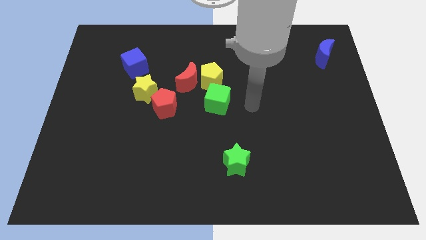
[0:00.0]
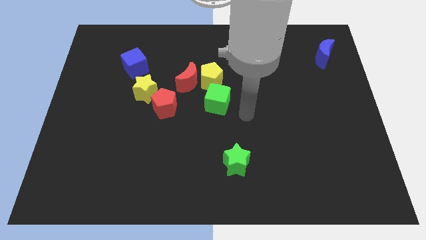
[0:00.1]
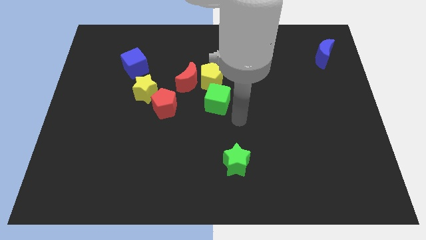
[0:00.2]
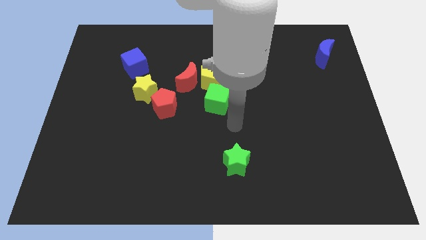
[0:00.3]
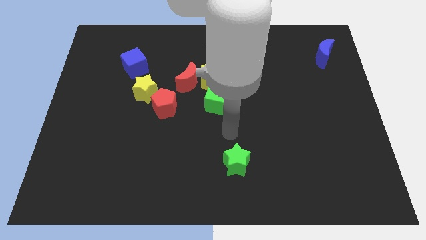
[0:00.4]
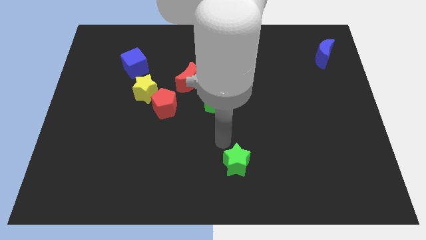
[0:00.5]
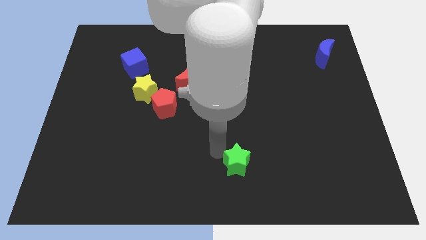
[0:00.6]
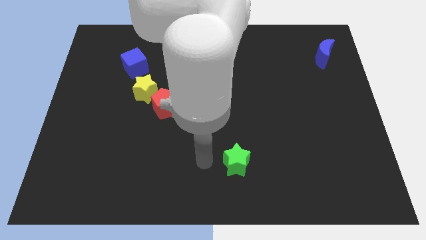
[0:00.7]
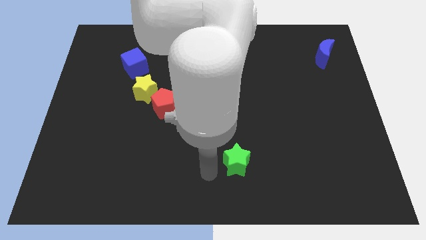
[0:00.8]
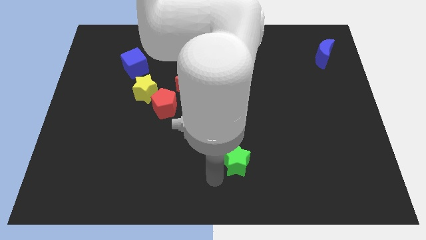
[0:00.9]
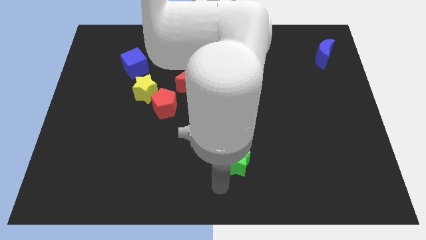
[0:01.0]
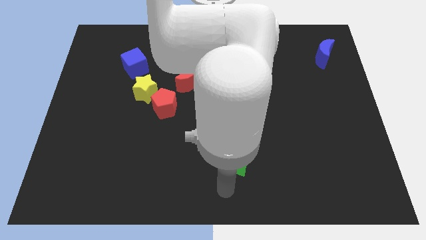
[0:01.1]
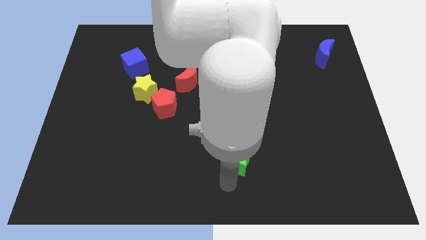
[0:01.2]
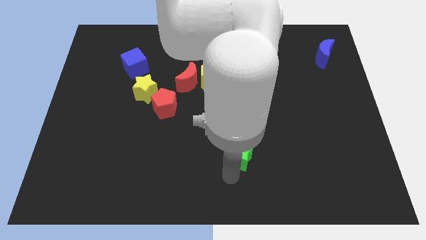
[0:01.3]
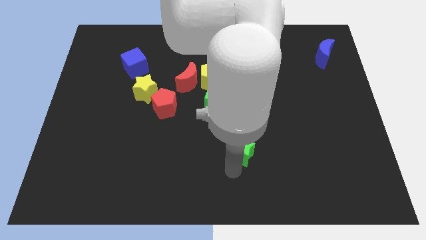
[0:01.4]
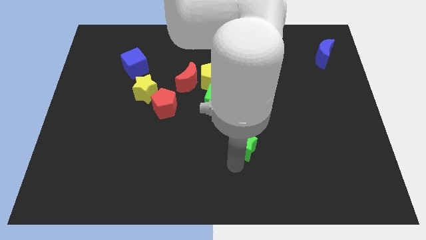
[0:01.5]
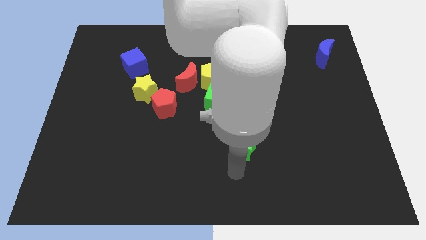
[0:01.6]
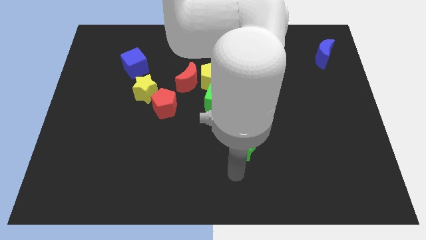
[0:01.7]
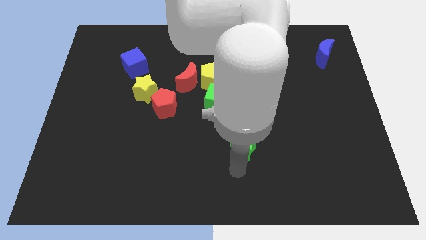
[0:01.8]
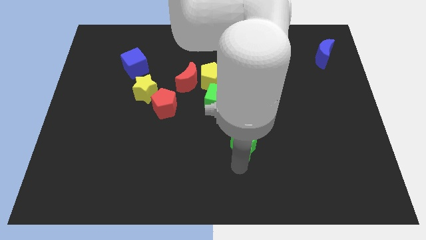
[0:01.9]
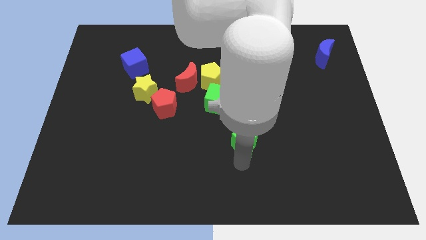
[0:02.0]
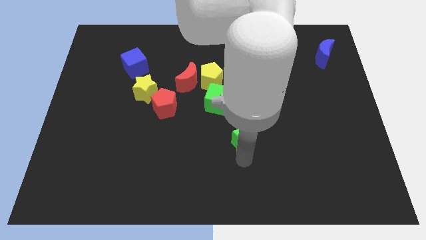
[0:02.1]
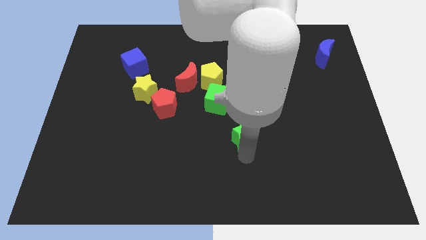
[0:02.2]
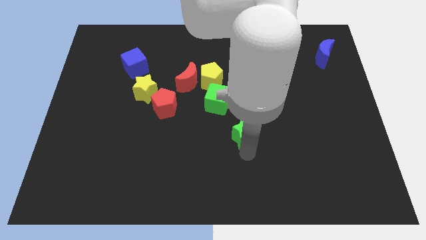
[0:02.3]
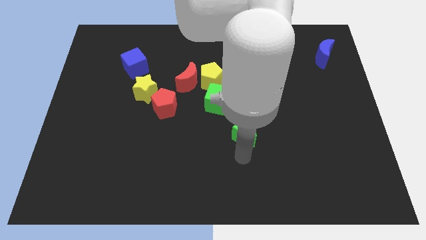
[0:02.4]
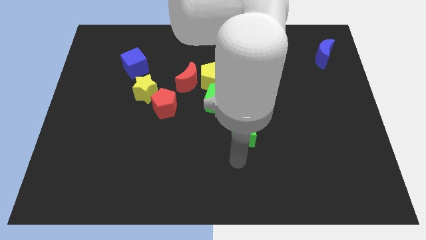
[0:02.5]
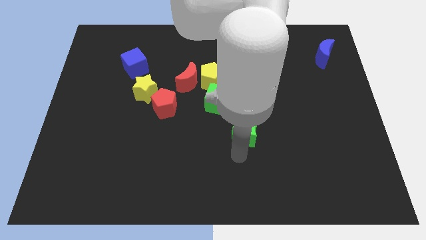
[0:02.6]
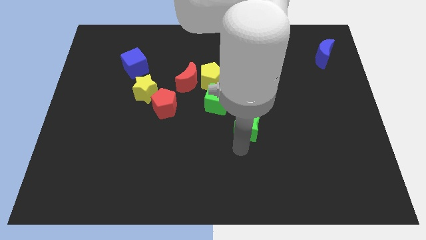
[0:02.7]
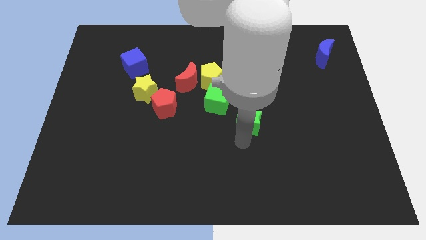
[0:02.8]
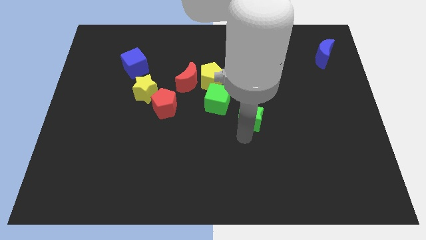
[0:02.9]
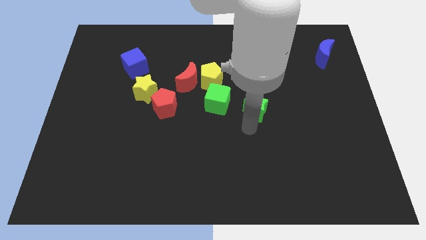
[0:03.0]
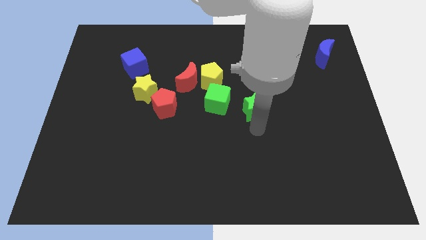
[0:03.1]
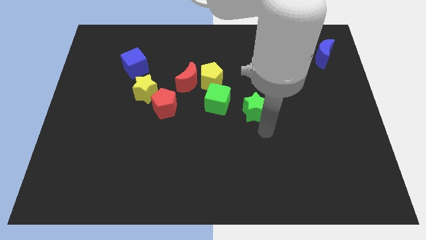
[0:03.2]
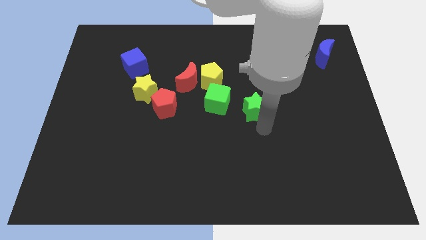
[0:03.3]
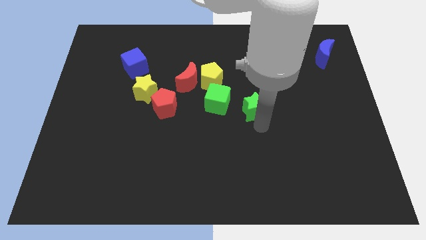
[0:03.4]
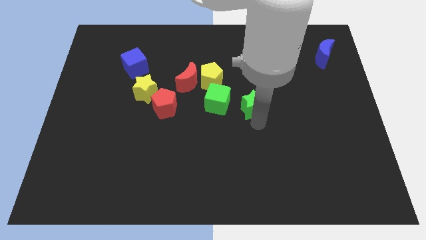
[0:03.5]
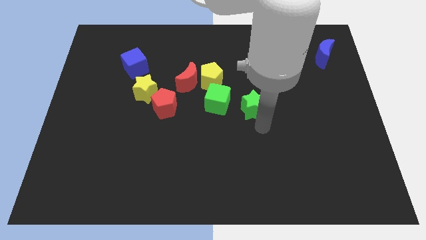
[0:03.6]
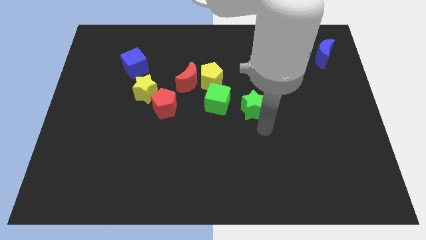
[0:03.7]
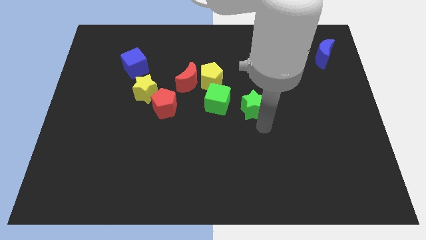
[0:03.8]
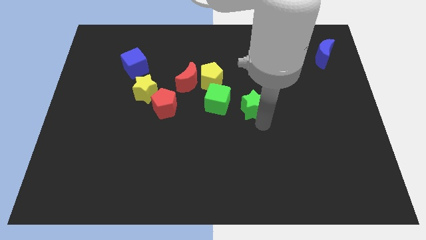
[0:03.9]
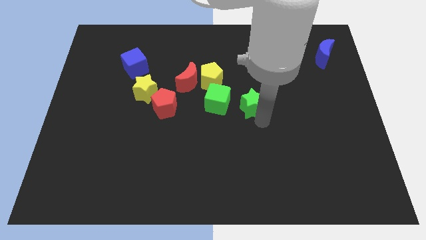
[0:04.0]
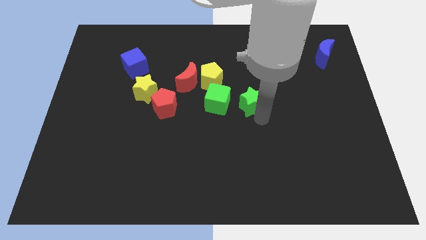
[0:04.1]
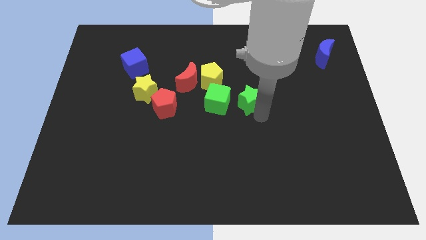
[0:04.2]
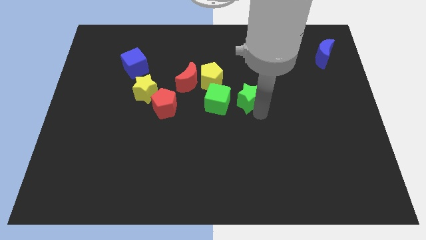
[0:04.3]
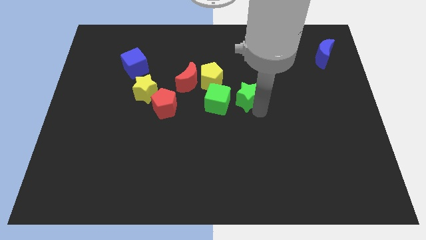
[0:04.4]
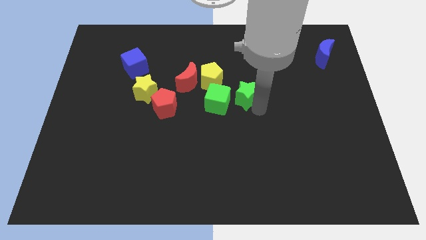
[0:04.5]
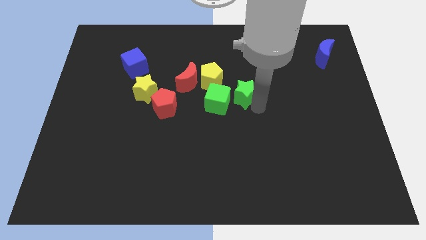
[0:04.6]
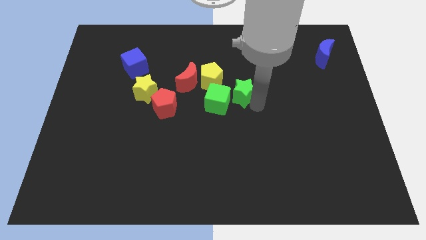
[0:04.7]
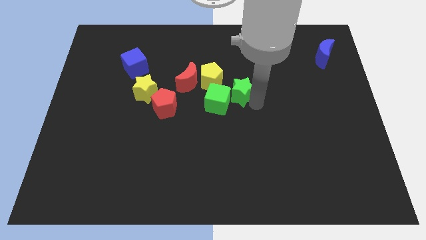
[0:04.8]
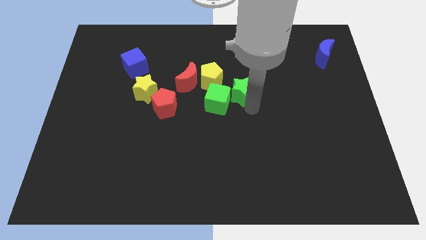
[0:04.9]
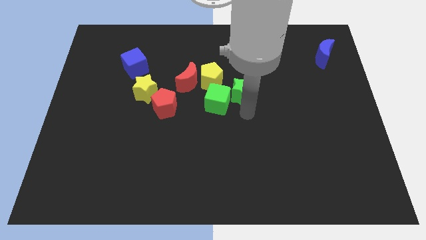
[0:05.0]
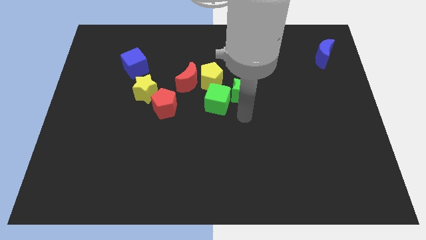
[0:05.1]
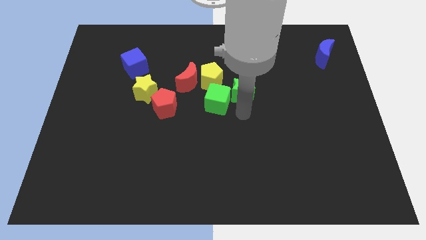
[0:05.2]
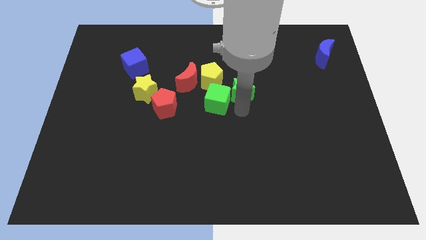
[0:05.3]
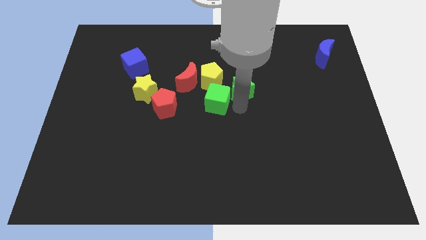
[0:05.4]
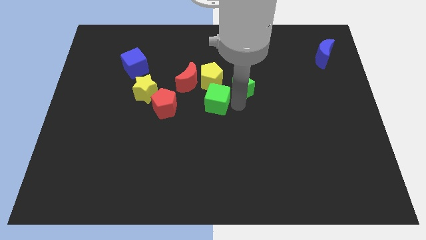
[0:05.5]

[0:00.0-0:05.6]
slide the green star upwards

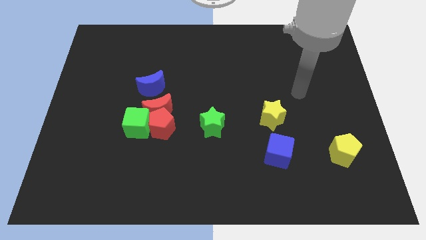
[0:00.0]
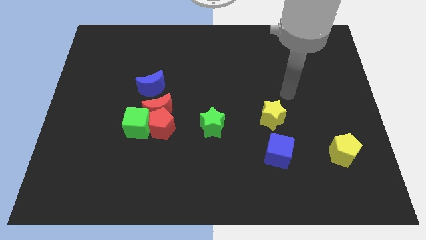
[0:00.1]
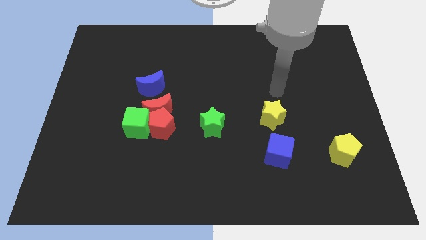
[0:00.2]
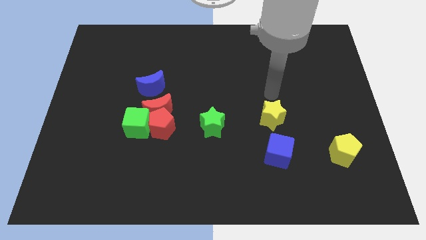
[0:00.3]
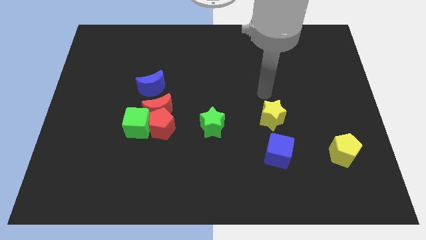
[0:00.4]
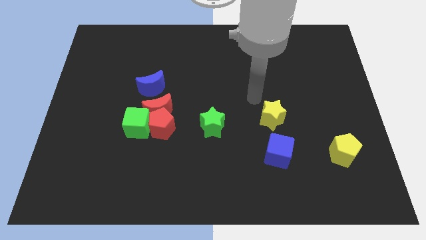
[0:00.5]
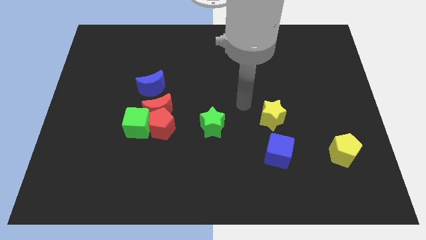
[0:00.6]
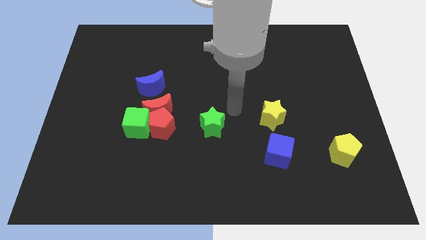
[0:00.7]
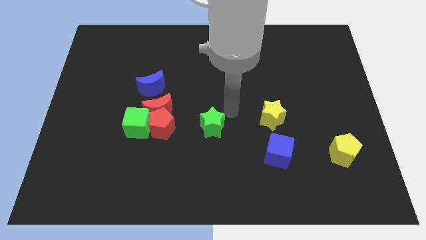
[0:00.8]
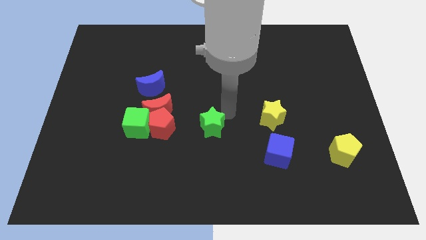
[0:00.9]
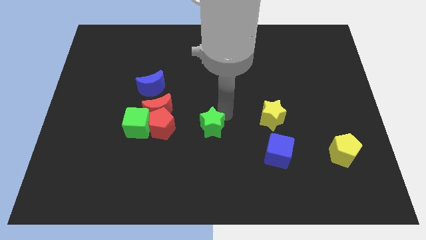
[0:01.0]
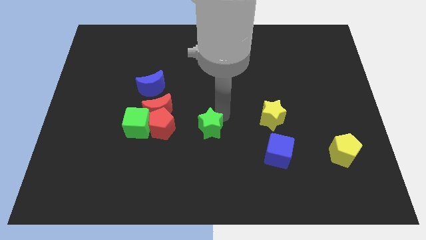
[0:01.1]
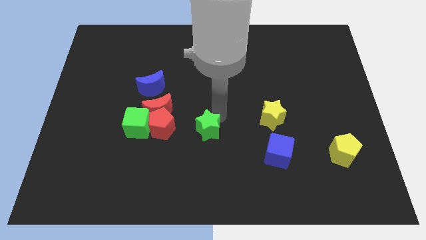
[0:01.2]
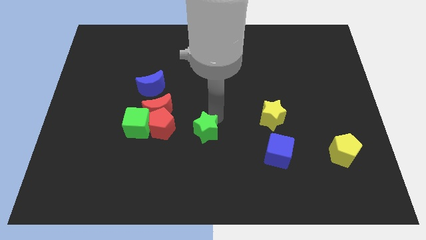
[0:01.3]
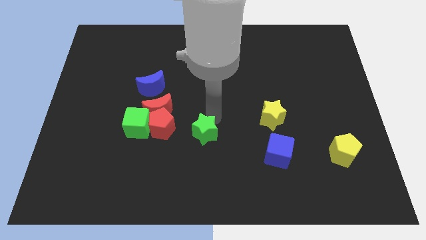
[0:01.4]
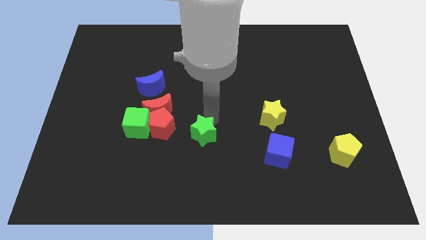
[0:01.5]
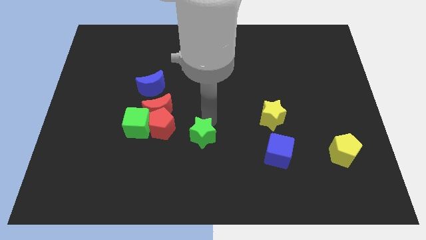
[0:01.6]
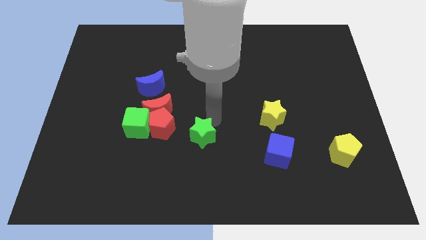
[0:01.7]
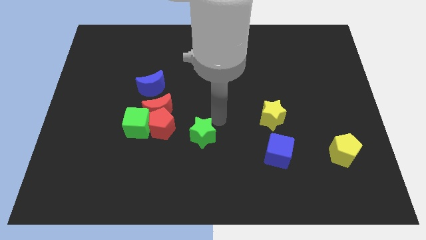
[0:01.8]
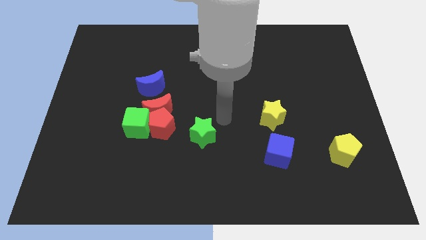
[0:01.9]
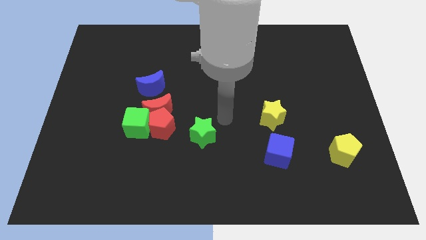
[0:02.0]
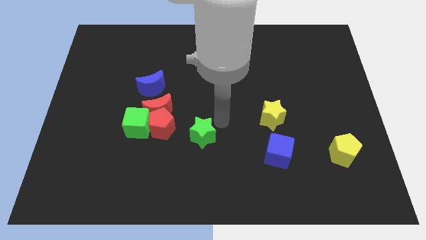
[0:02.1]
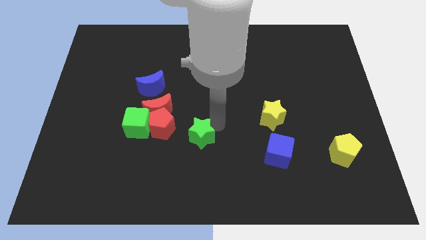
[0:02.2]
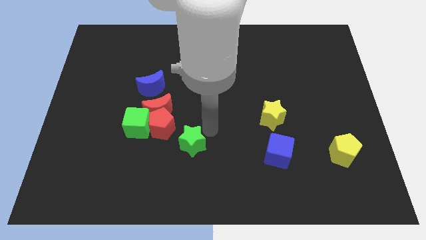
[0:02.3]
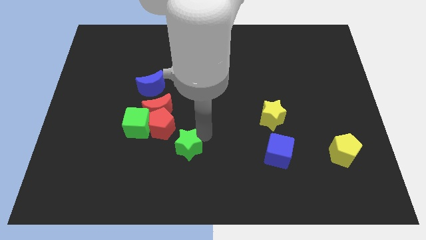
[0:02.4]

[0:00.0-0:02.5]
push the green star downwards and then left slightly

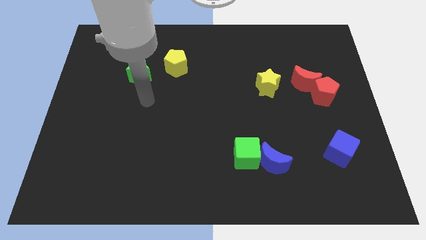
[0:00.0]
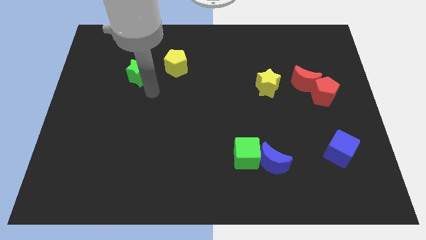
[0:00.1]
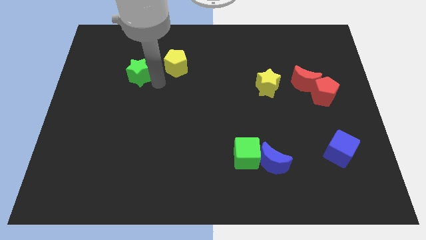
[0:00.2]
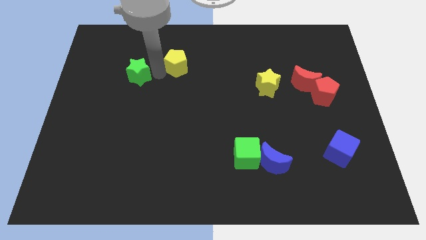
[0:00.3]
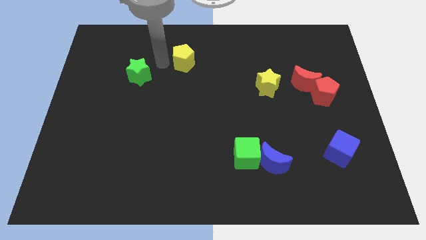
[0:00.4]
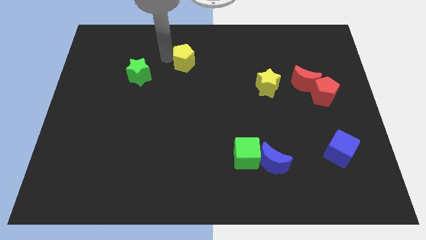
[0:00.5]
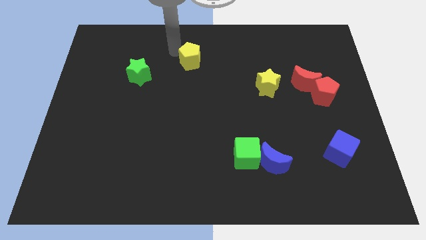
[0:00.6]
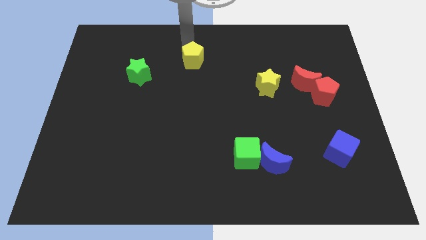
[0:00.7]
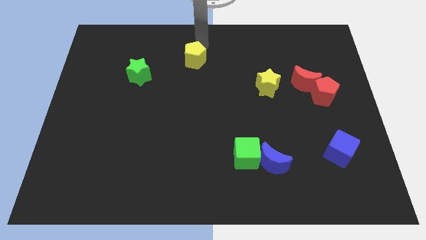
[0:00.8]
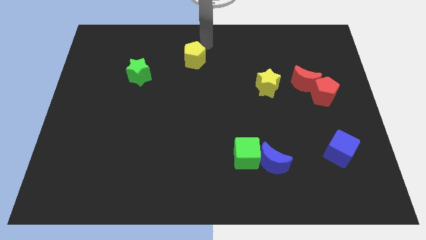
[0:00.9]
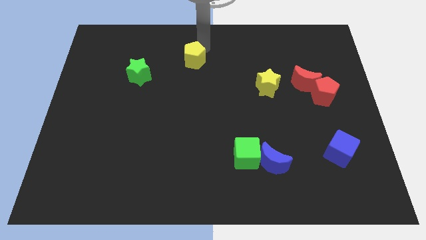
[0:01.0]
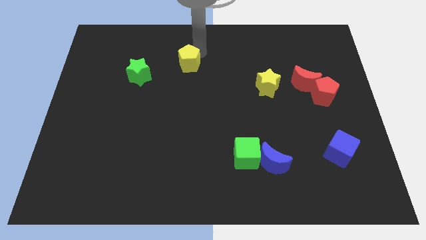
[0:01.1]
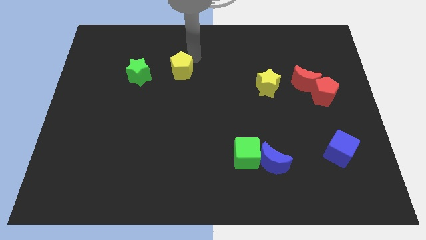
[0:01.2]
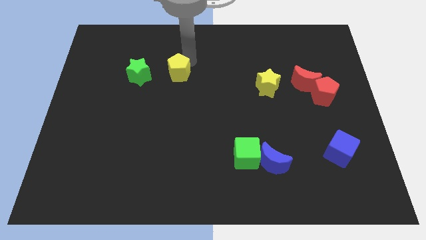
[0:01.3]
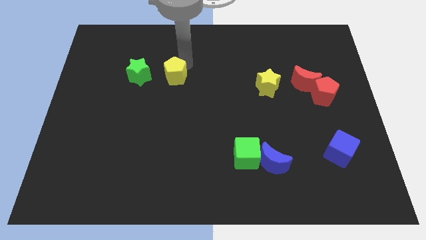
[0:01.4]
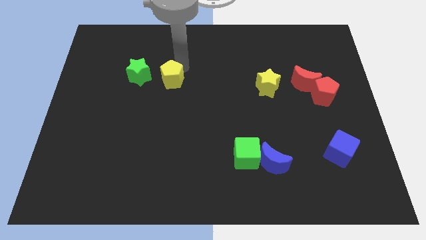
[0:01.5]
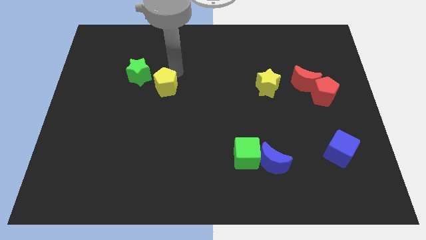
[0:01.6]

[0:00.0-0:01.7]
slide the yellow pentagon a little downwards
